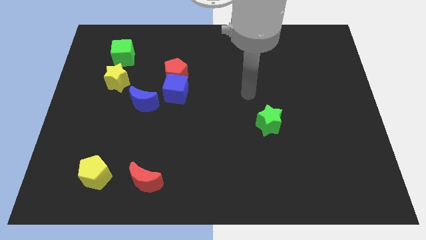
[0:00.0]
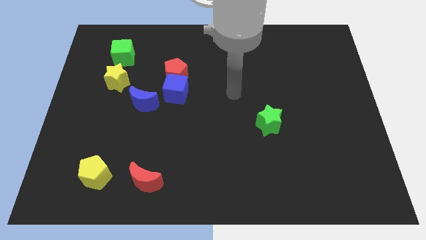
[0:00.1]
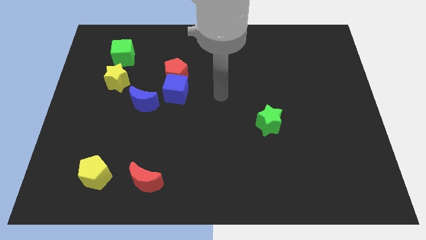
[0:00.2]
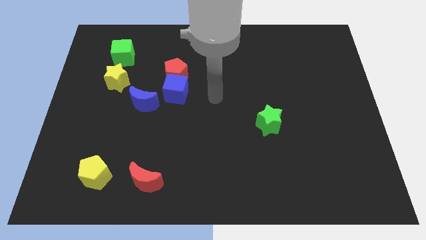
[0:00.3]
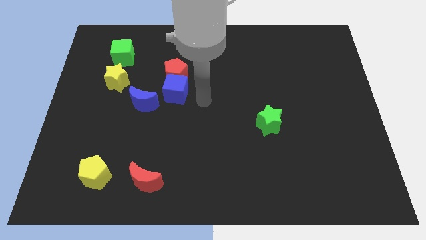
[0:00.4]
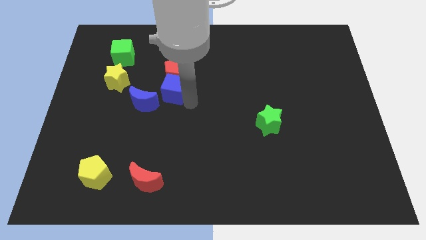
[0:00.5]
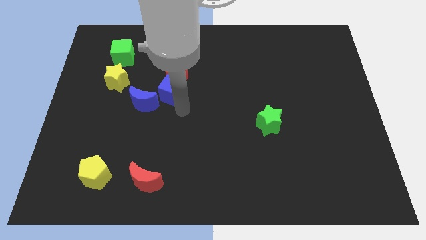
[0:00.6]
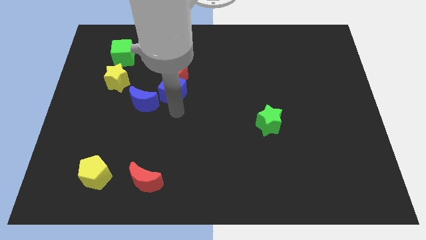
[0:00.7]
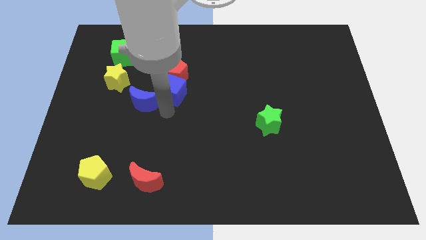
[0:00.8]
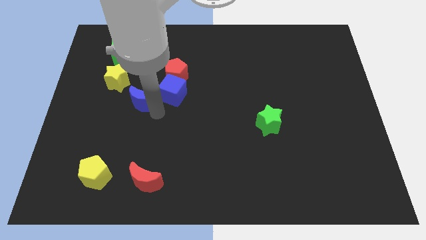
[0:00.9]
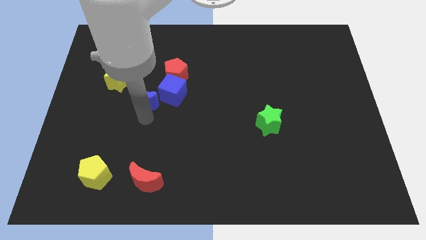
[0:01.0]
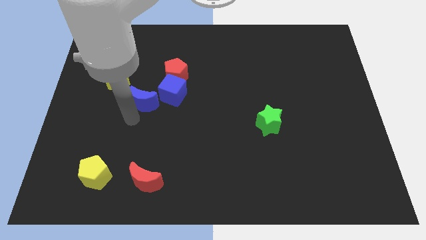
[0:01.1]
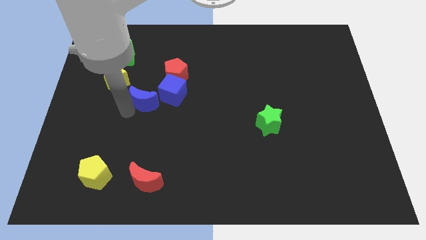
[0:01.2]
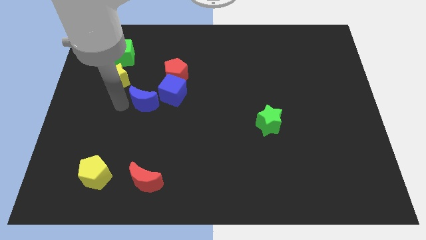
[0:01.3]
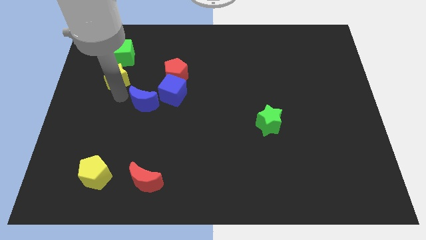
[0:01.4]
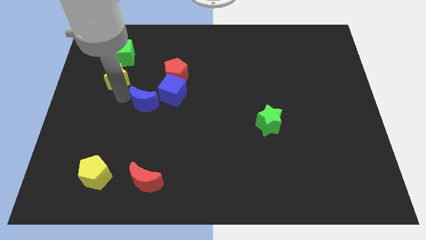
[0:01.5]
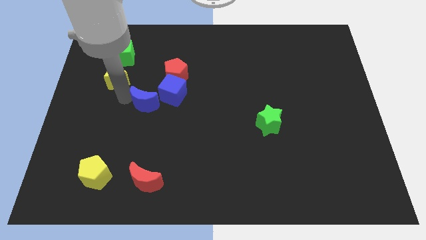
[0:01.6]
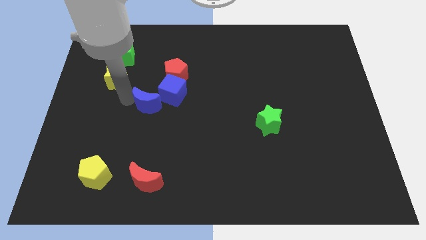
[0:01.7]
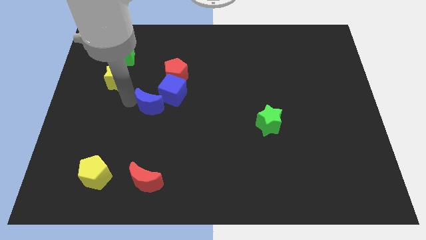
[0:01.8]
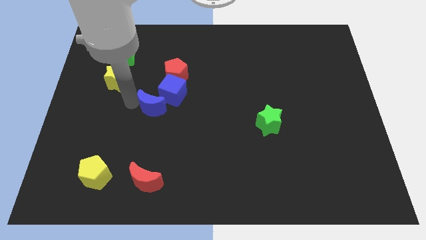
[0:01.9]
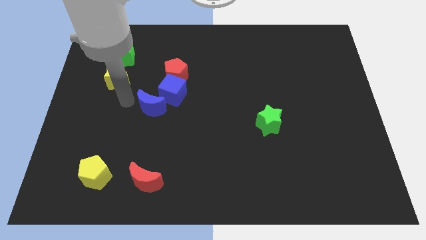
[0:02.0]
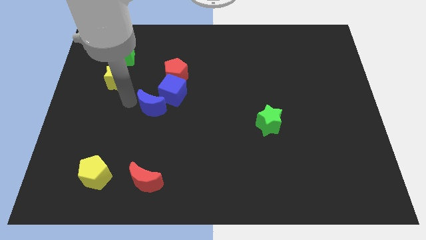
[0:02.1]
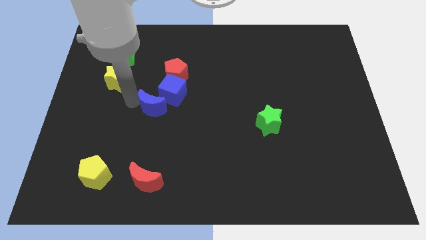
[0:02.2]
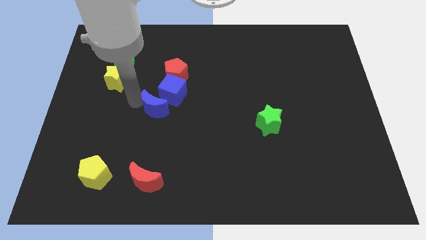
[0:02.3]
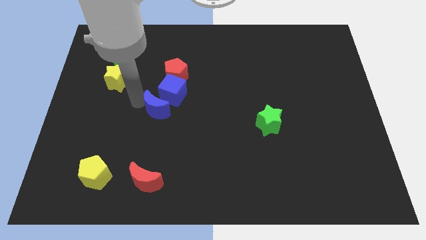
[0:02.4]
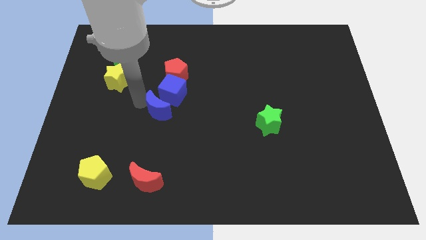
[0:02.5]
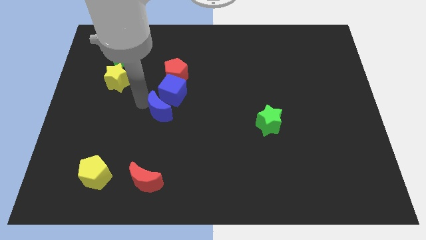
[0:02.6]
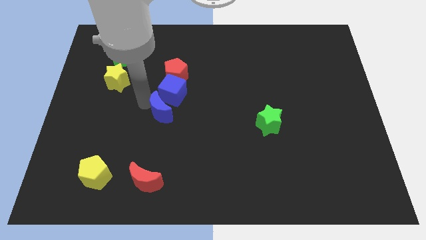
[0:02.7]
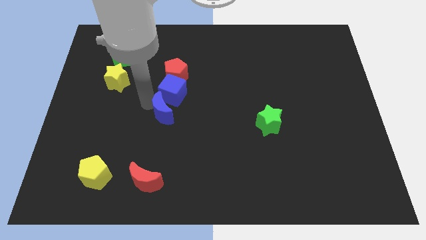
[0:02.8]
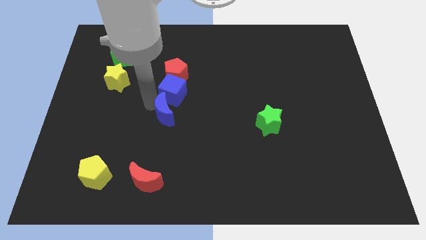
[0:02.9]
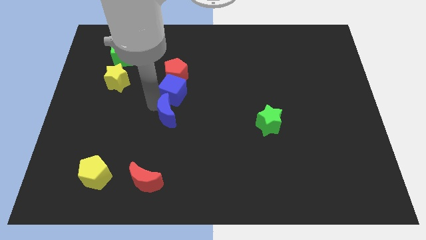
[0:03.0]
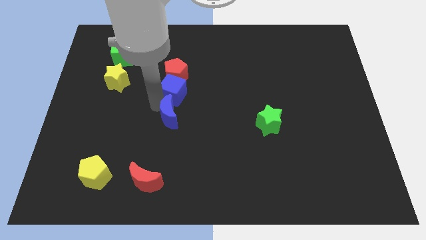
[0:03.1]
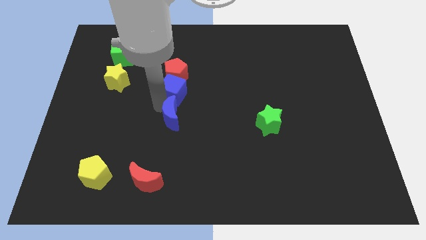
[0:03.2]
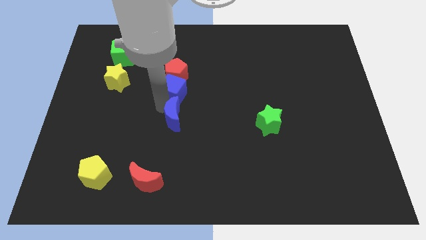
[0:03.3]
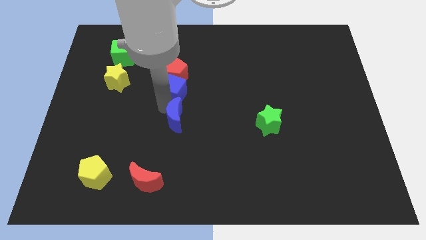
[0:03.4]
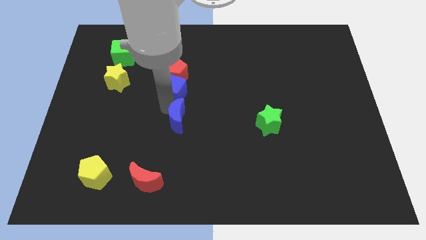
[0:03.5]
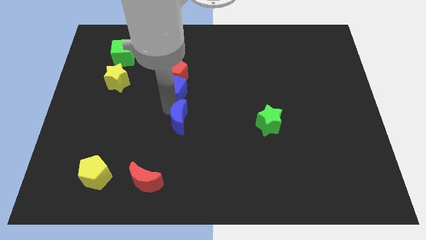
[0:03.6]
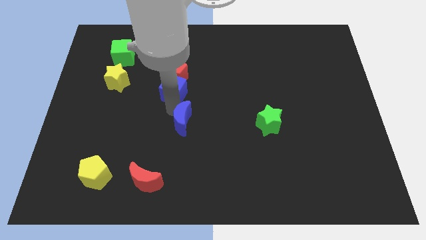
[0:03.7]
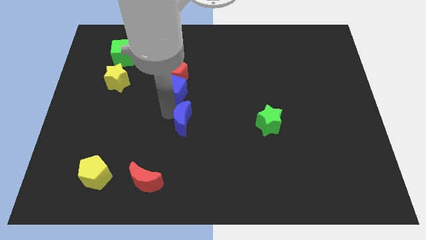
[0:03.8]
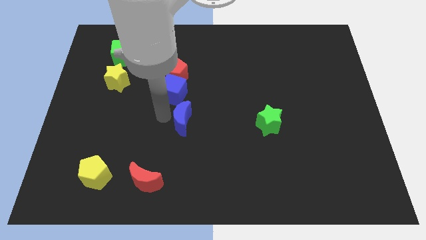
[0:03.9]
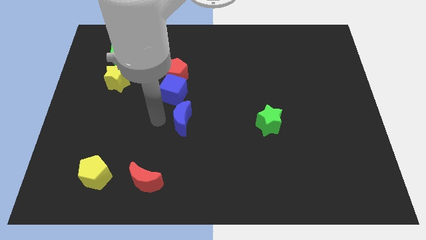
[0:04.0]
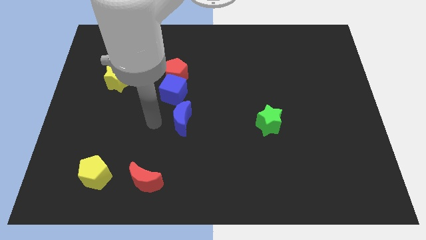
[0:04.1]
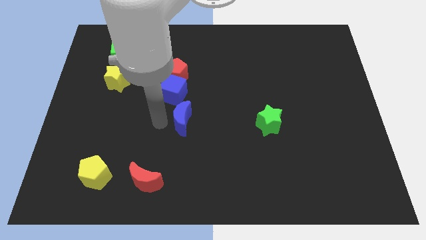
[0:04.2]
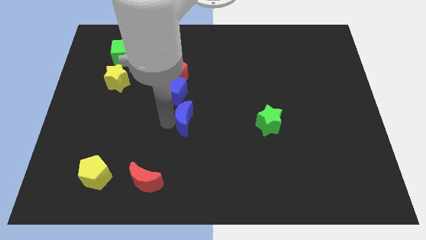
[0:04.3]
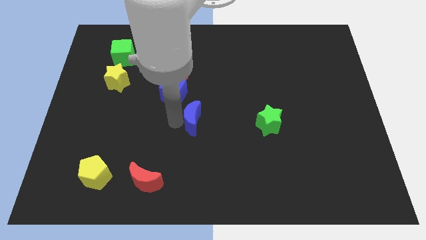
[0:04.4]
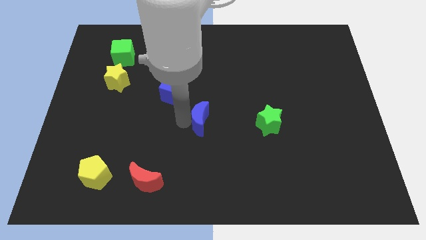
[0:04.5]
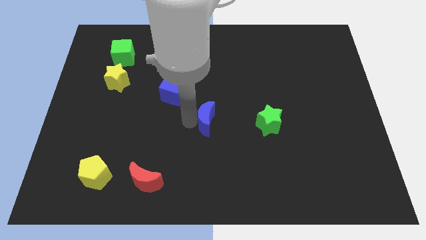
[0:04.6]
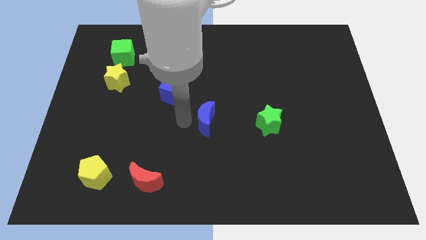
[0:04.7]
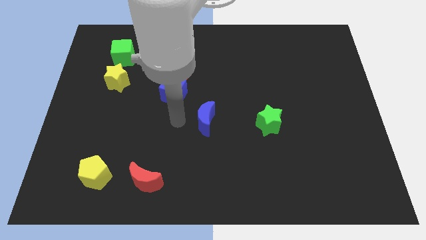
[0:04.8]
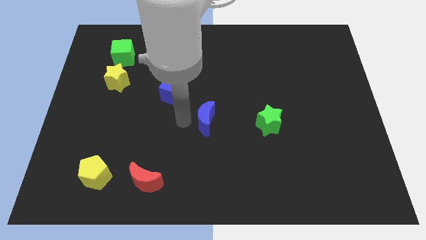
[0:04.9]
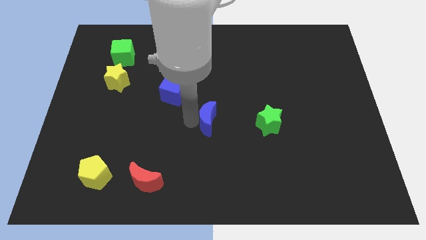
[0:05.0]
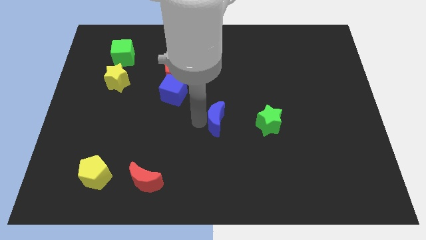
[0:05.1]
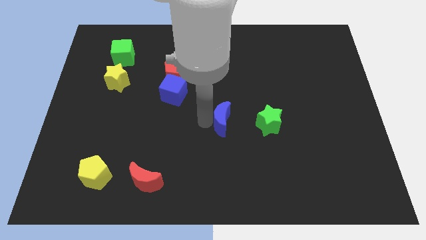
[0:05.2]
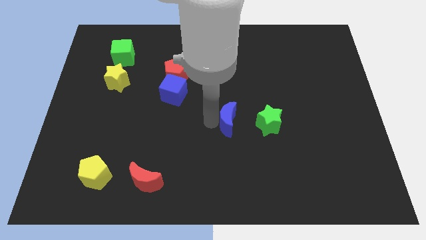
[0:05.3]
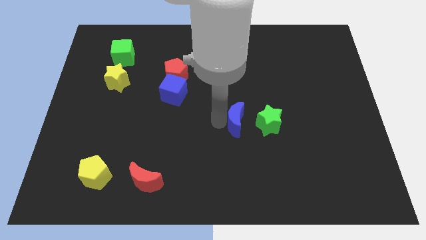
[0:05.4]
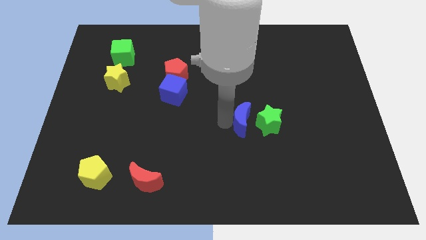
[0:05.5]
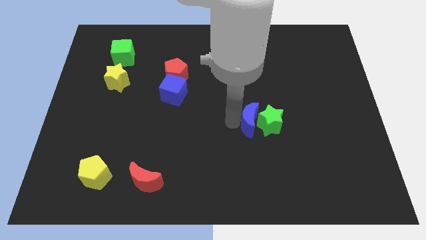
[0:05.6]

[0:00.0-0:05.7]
slide the blue moon close to the green star
